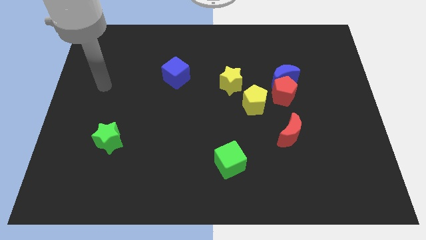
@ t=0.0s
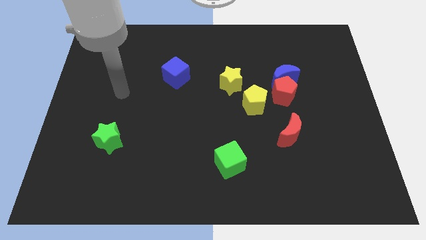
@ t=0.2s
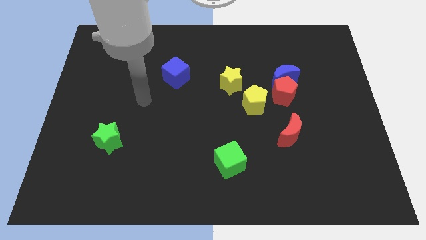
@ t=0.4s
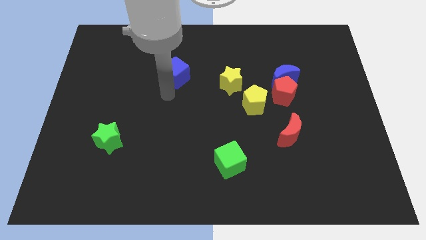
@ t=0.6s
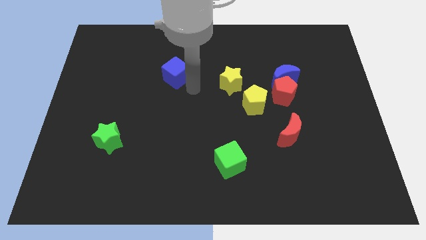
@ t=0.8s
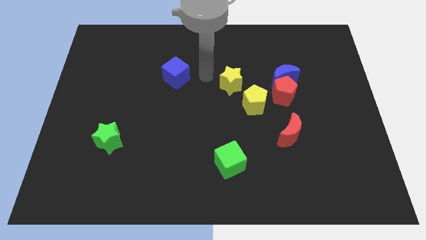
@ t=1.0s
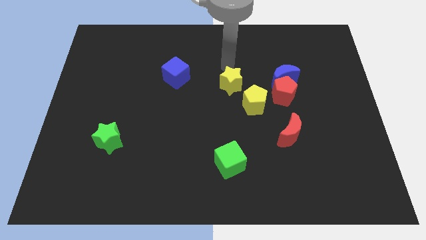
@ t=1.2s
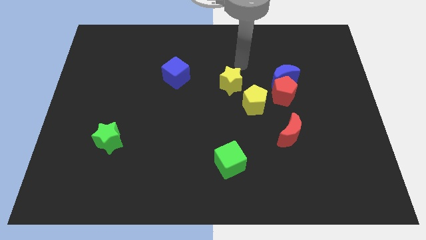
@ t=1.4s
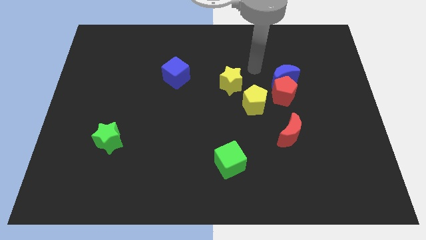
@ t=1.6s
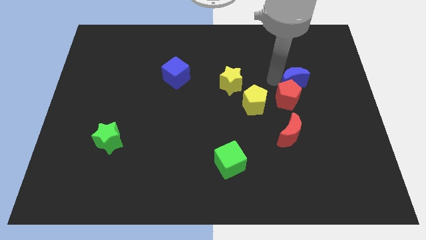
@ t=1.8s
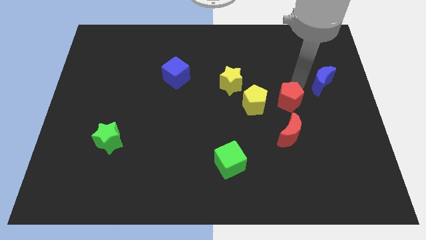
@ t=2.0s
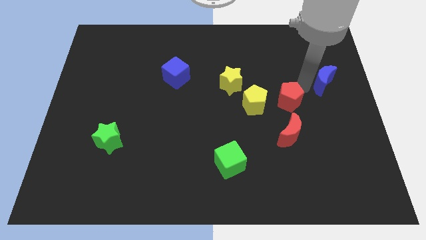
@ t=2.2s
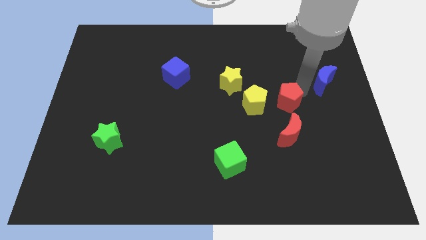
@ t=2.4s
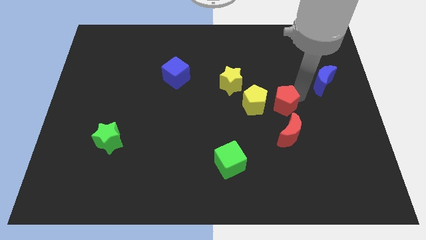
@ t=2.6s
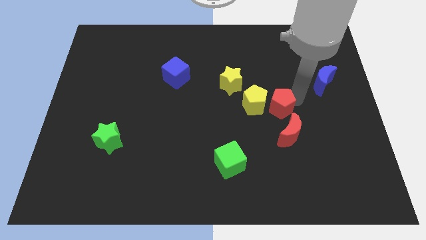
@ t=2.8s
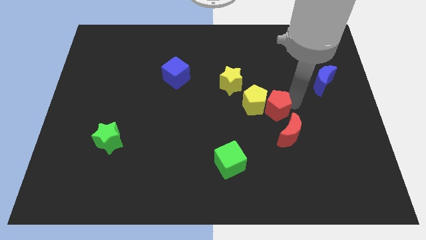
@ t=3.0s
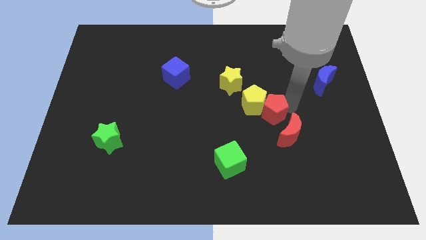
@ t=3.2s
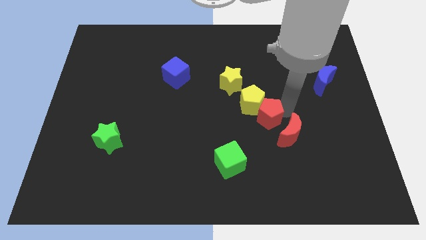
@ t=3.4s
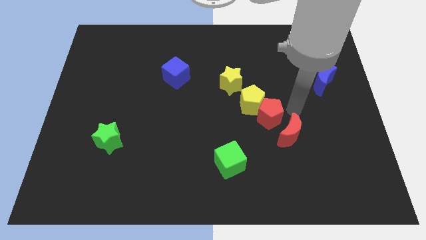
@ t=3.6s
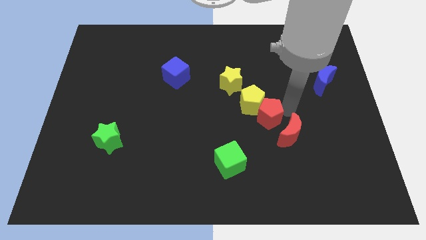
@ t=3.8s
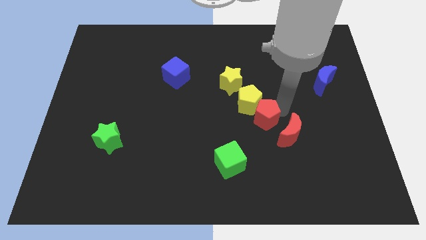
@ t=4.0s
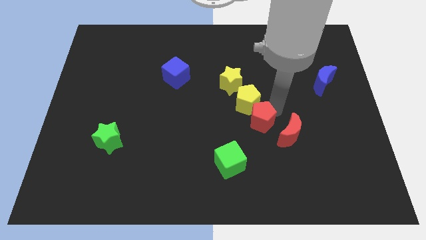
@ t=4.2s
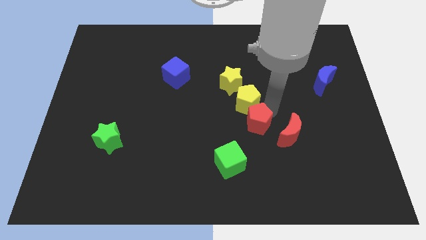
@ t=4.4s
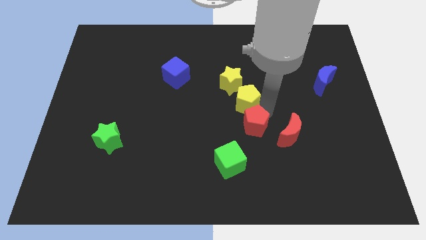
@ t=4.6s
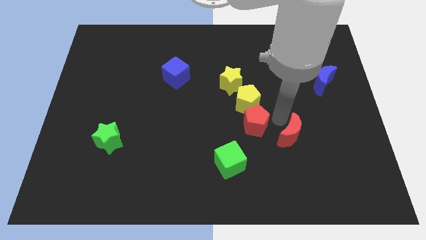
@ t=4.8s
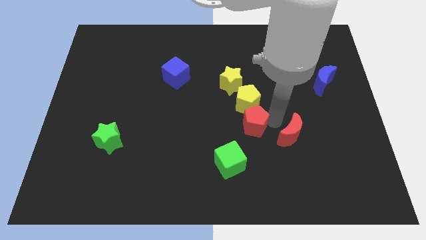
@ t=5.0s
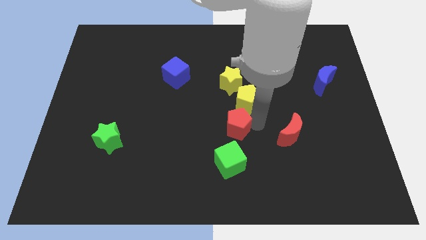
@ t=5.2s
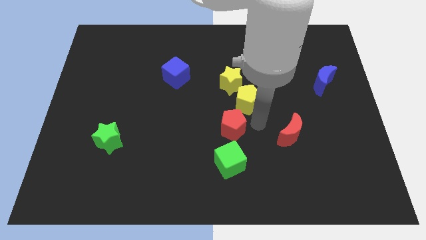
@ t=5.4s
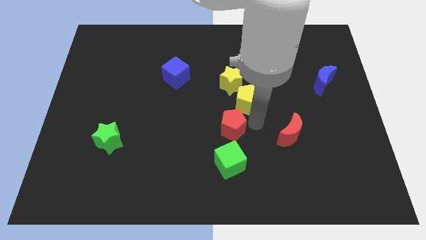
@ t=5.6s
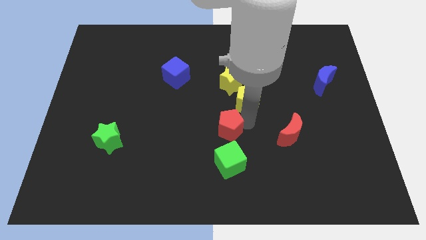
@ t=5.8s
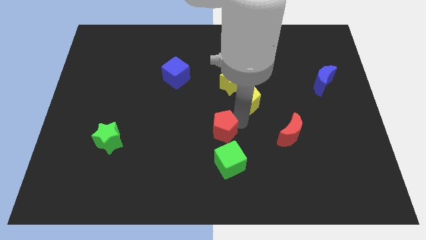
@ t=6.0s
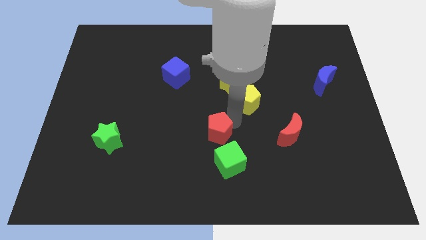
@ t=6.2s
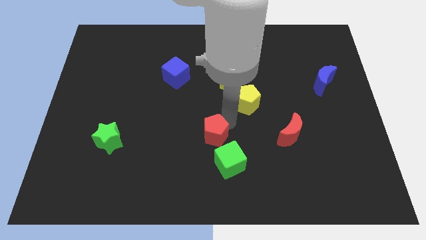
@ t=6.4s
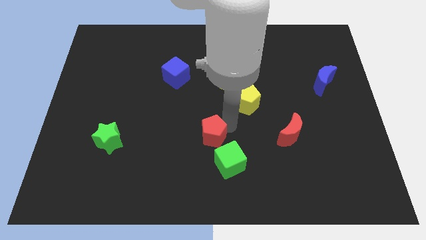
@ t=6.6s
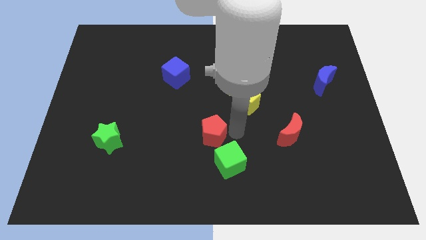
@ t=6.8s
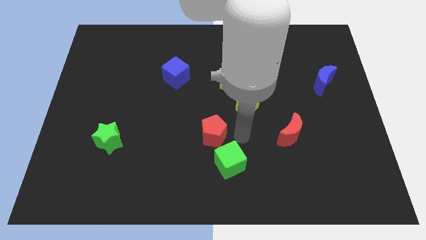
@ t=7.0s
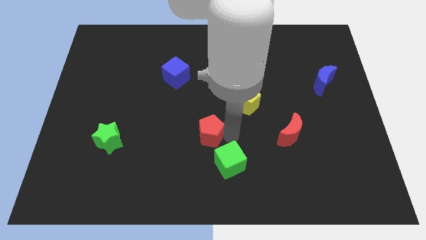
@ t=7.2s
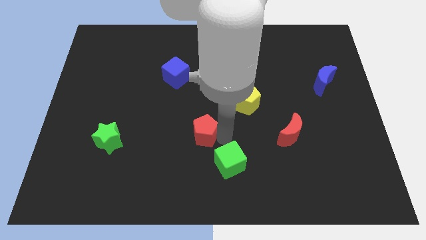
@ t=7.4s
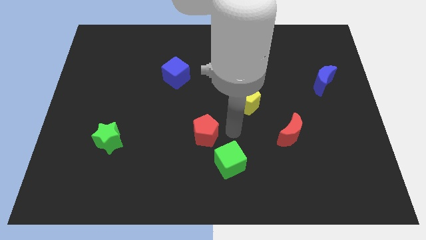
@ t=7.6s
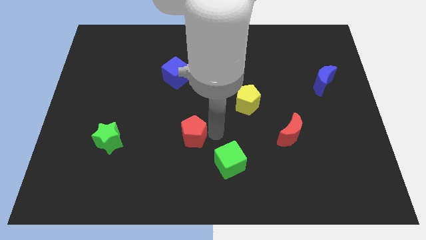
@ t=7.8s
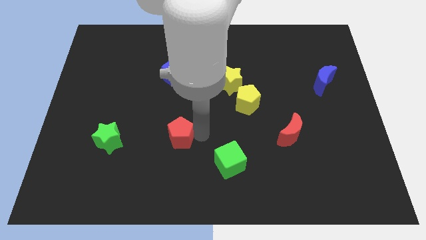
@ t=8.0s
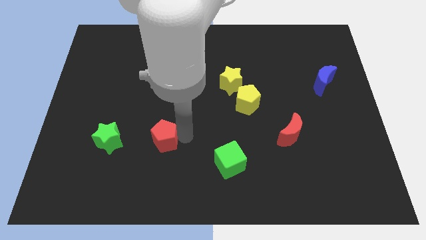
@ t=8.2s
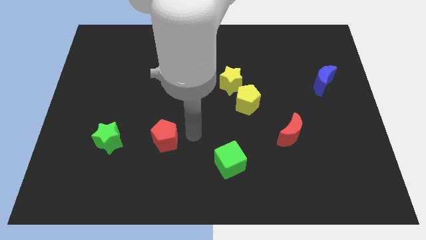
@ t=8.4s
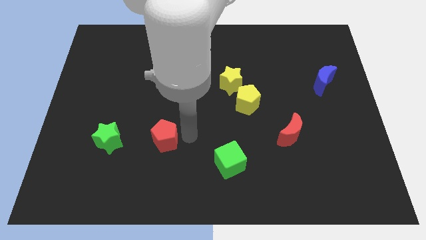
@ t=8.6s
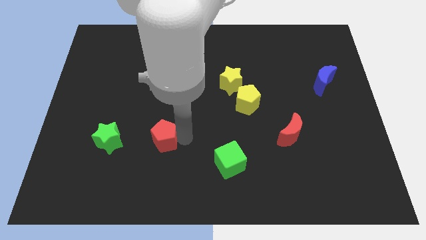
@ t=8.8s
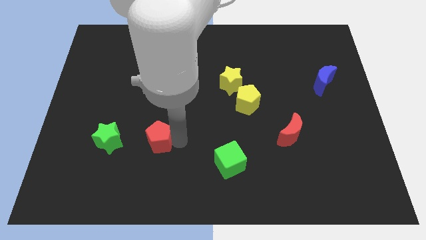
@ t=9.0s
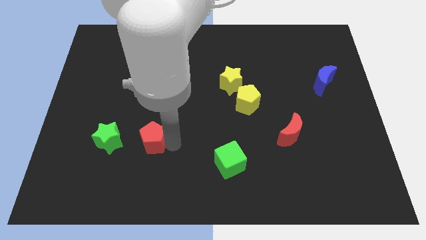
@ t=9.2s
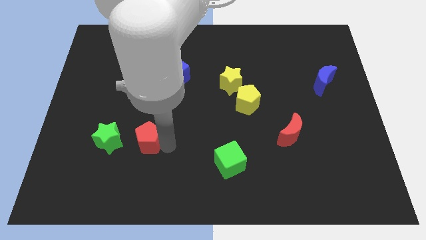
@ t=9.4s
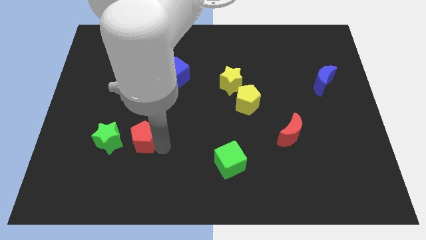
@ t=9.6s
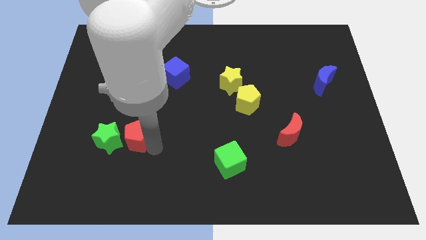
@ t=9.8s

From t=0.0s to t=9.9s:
push the red pentagon next to the green star

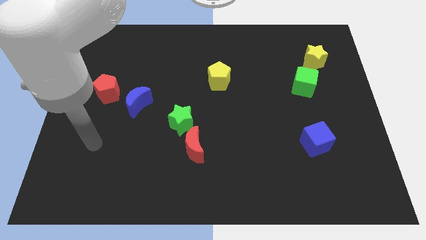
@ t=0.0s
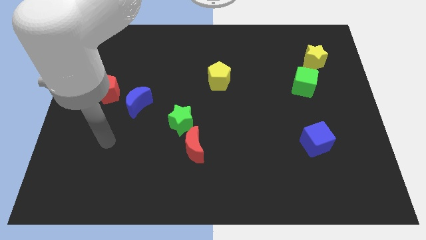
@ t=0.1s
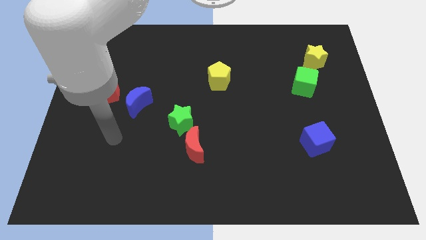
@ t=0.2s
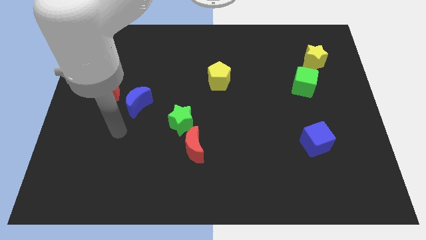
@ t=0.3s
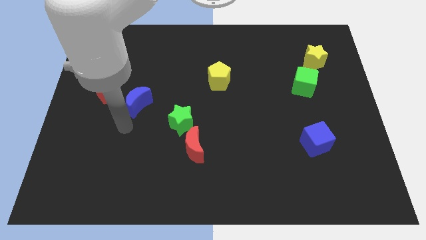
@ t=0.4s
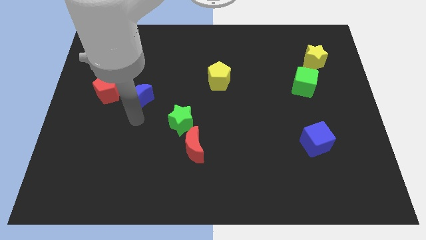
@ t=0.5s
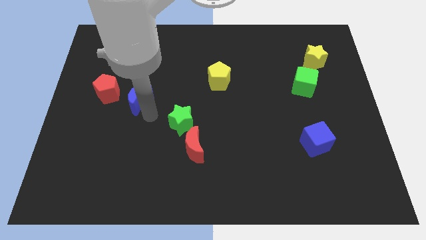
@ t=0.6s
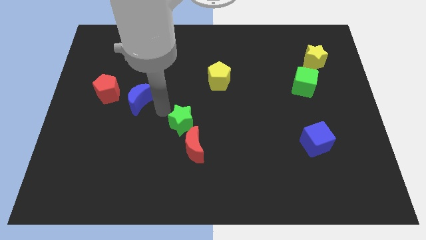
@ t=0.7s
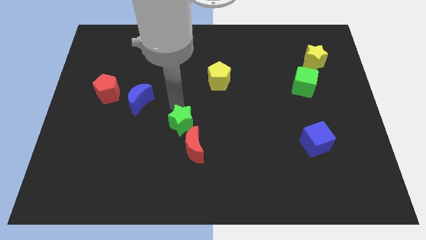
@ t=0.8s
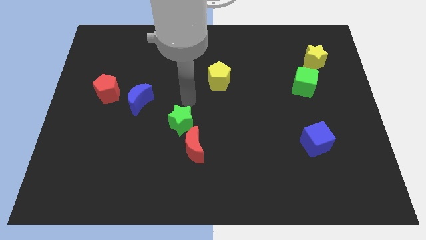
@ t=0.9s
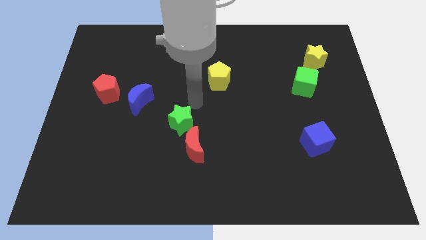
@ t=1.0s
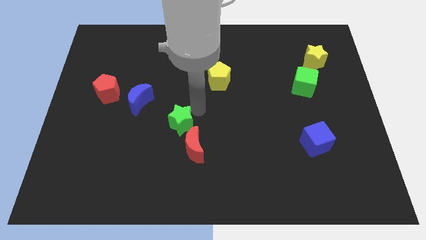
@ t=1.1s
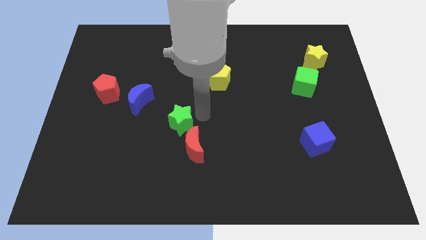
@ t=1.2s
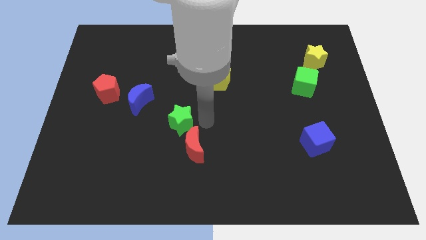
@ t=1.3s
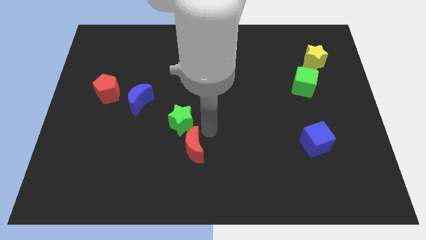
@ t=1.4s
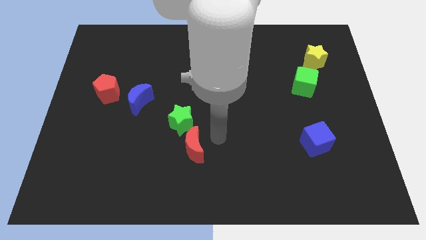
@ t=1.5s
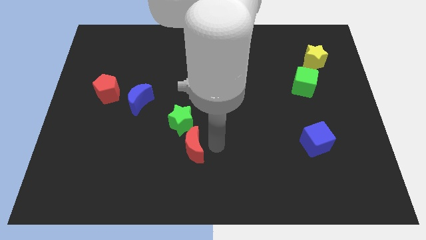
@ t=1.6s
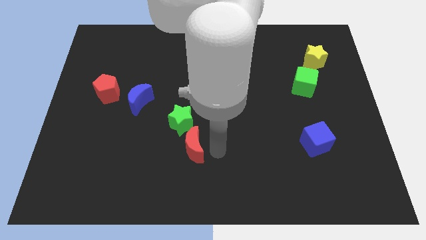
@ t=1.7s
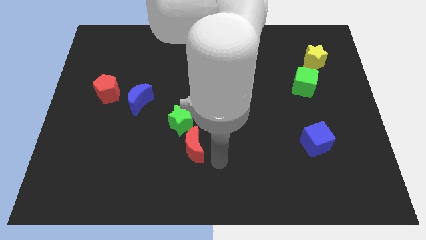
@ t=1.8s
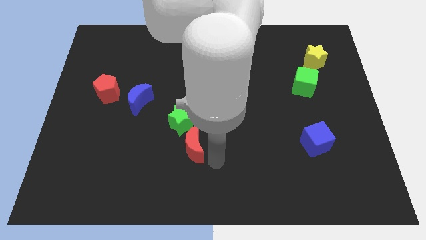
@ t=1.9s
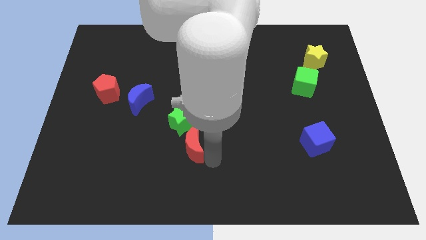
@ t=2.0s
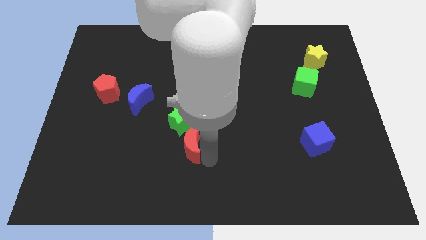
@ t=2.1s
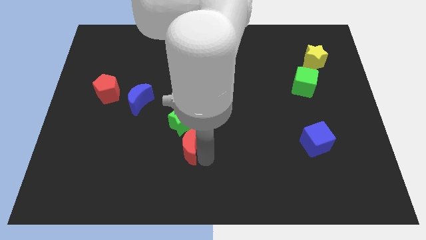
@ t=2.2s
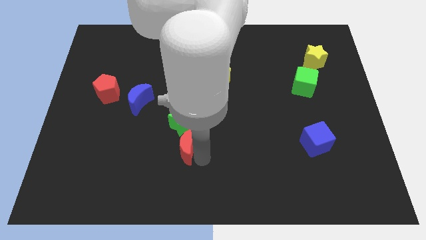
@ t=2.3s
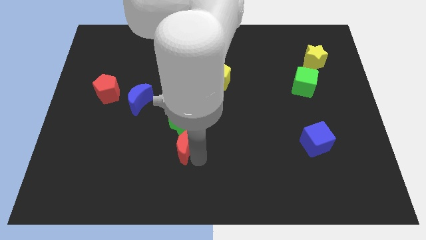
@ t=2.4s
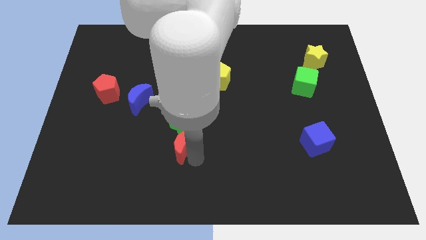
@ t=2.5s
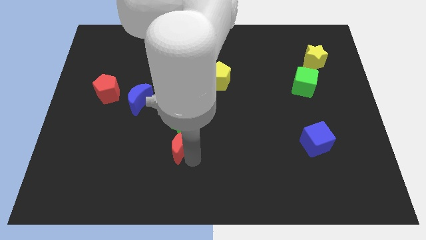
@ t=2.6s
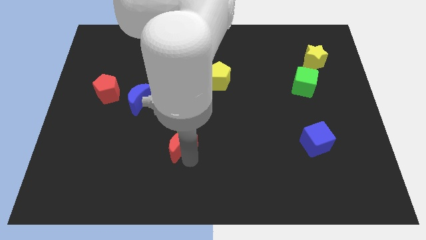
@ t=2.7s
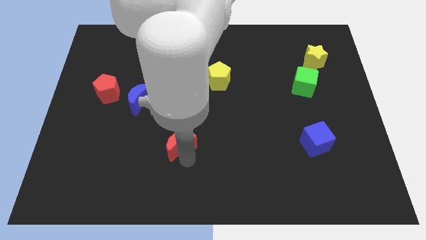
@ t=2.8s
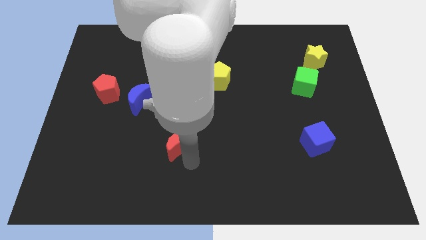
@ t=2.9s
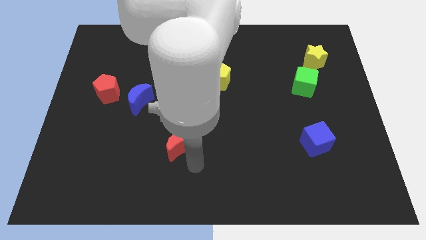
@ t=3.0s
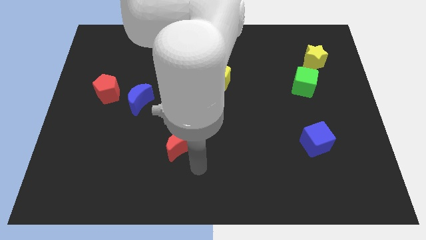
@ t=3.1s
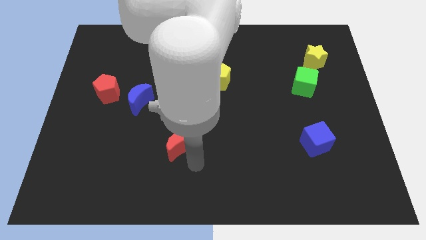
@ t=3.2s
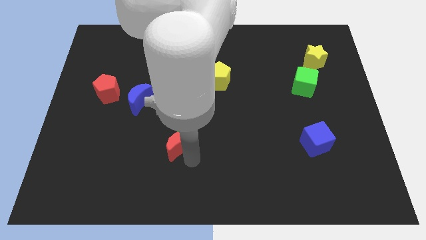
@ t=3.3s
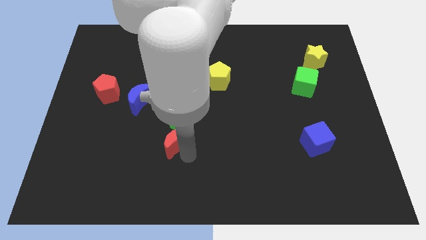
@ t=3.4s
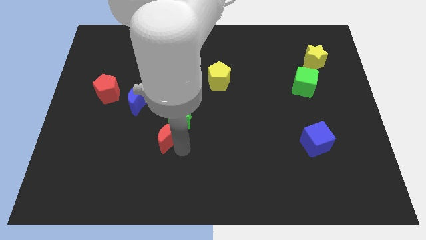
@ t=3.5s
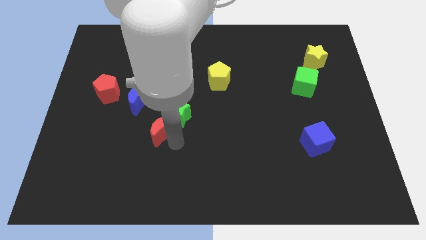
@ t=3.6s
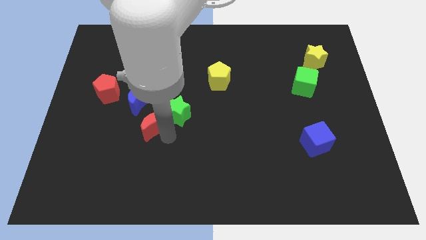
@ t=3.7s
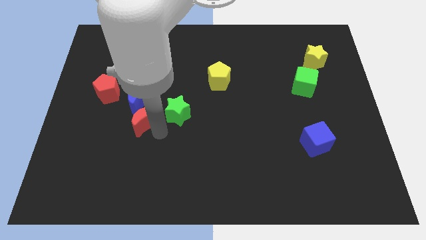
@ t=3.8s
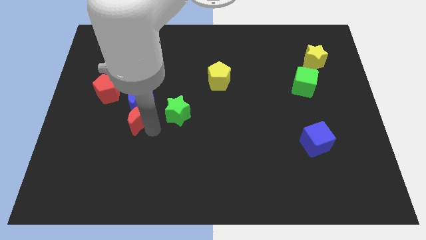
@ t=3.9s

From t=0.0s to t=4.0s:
move the red moon next to the blue moon
